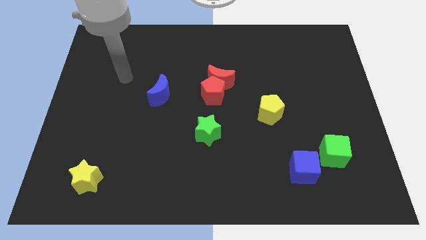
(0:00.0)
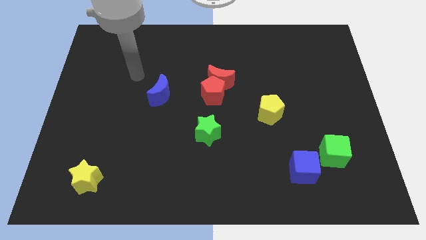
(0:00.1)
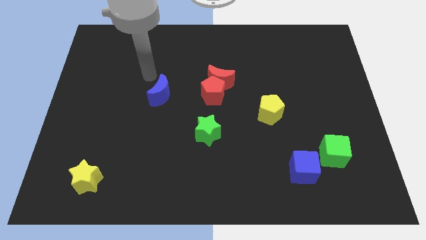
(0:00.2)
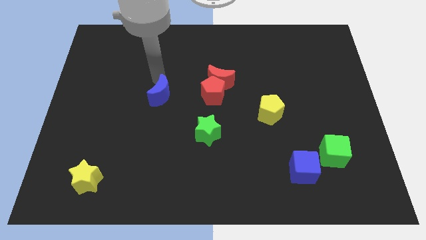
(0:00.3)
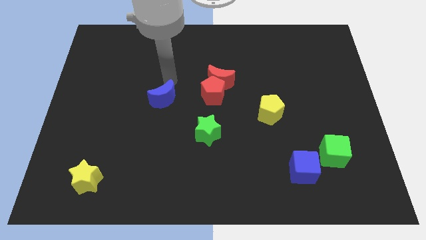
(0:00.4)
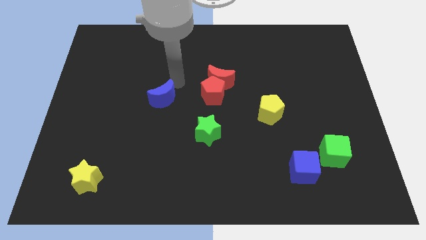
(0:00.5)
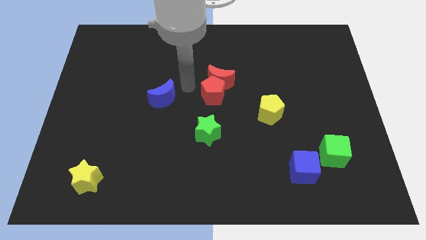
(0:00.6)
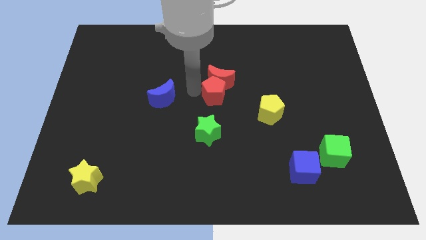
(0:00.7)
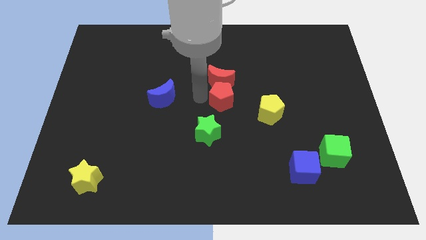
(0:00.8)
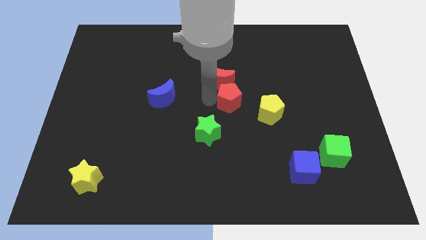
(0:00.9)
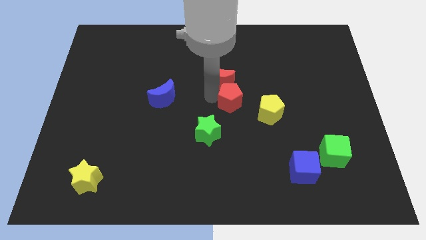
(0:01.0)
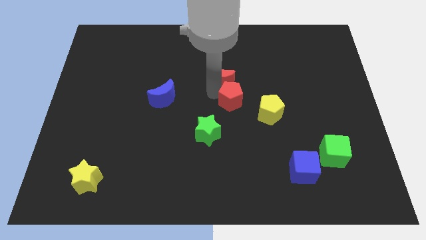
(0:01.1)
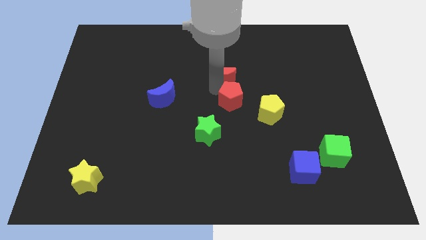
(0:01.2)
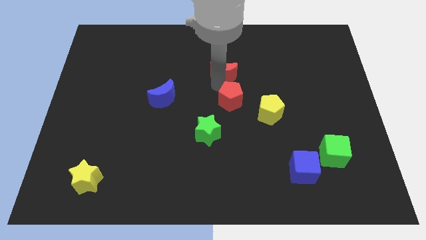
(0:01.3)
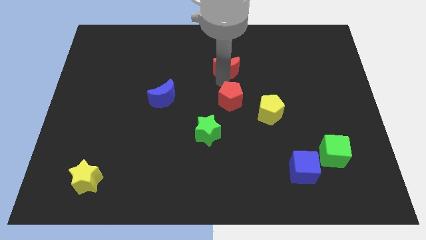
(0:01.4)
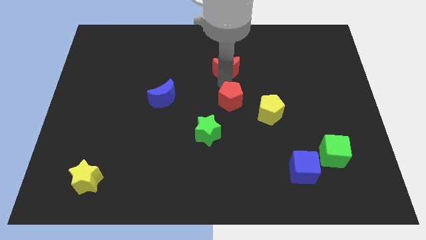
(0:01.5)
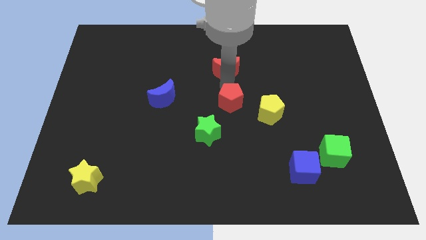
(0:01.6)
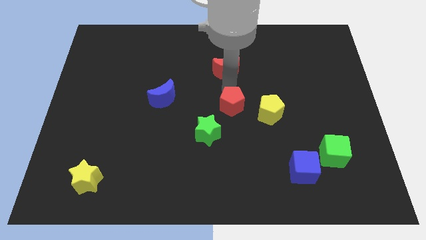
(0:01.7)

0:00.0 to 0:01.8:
pull the red moon apart from the red pentagon

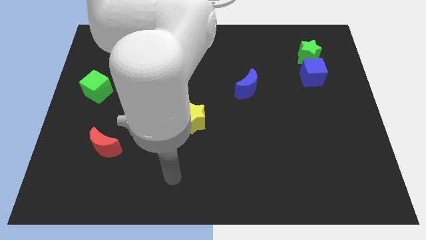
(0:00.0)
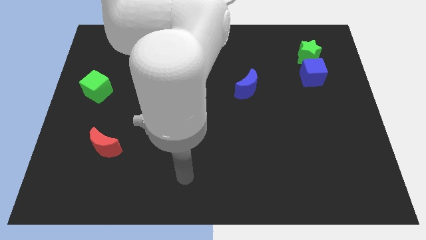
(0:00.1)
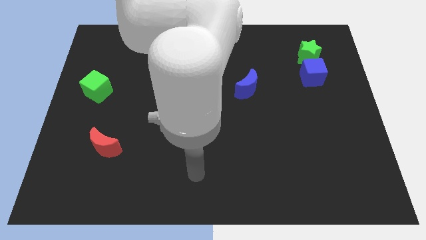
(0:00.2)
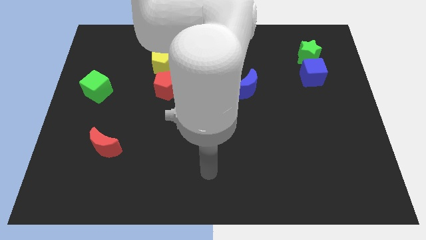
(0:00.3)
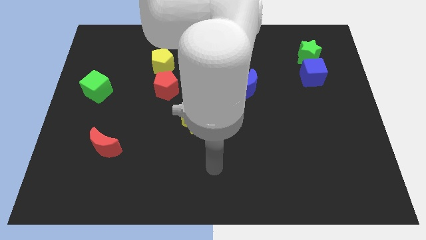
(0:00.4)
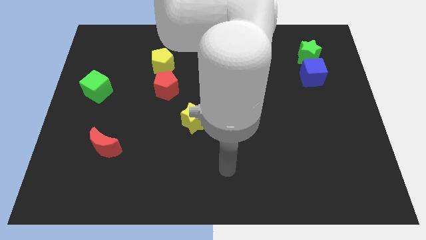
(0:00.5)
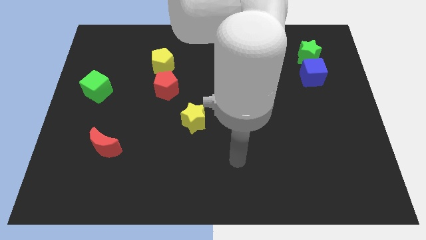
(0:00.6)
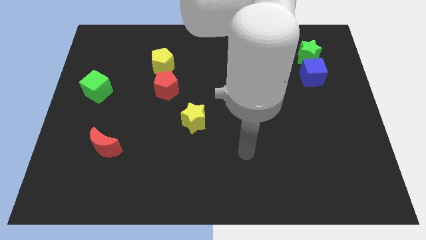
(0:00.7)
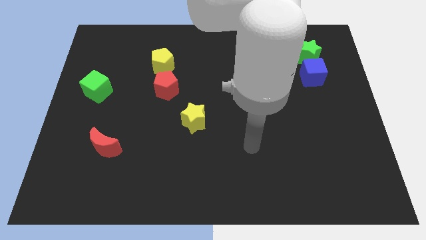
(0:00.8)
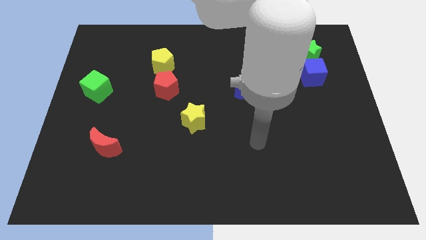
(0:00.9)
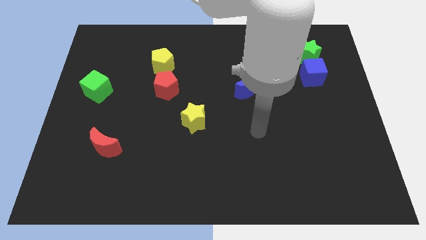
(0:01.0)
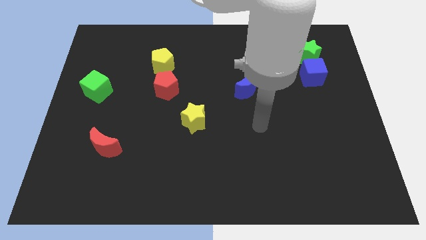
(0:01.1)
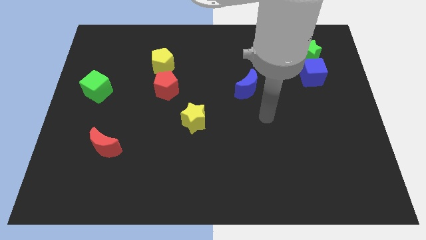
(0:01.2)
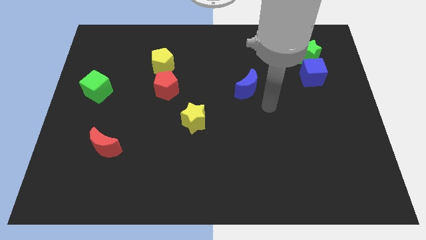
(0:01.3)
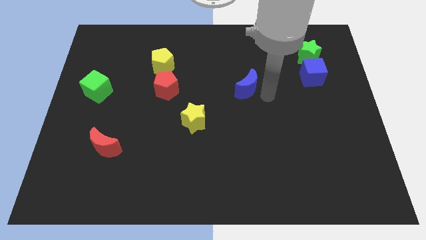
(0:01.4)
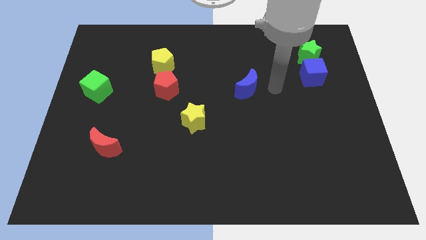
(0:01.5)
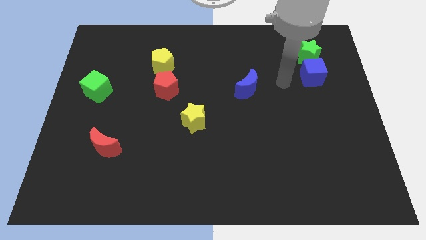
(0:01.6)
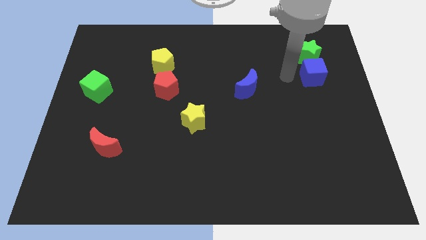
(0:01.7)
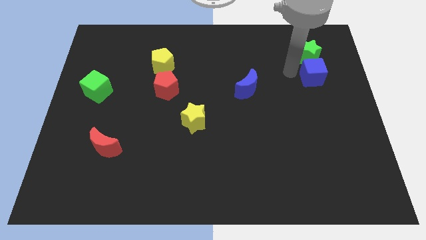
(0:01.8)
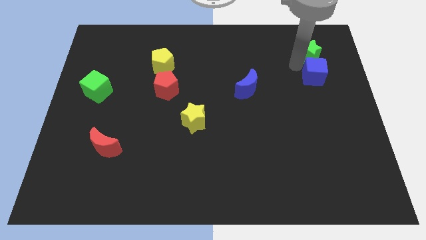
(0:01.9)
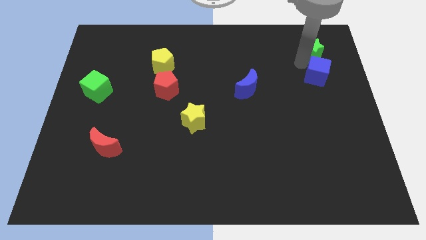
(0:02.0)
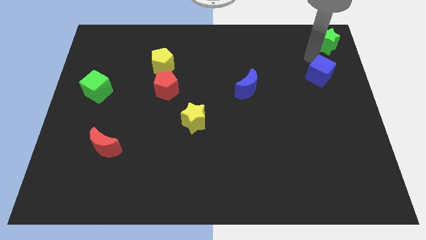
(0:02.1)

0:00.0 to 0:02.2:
move the blue cube away from the green star

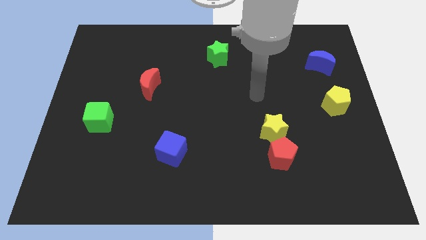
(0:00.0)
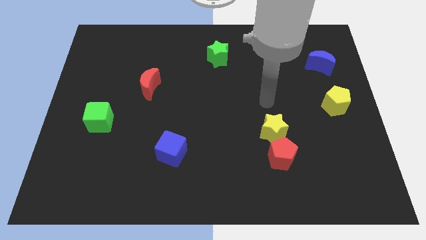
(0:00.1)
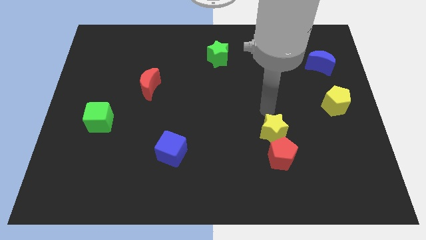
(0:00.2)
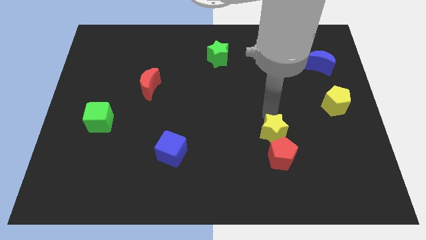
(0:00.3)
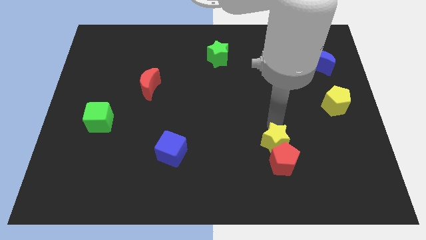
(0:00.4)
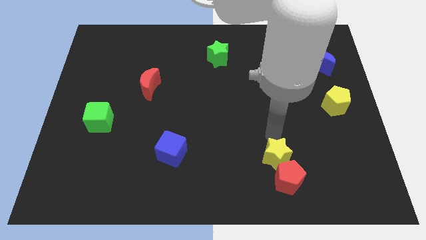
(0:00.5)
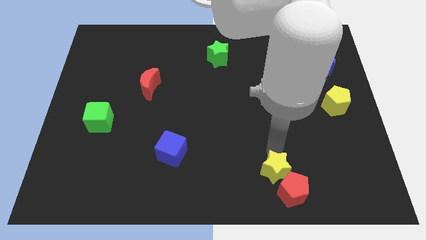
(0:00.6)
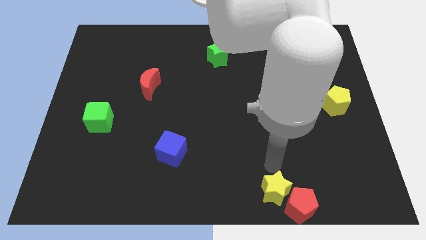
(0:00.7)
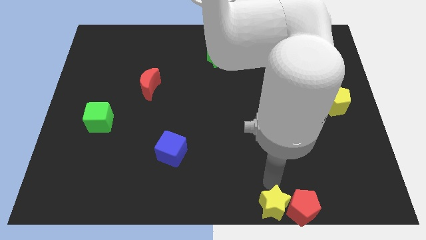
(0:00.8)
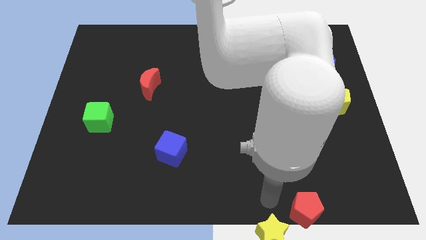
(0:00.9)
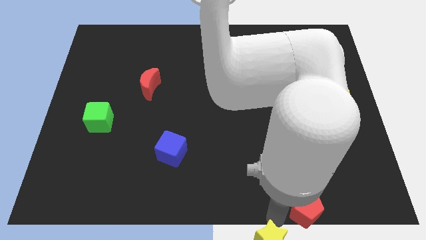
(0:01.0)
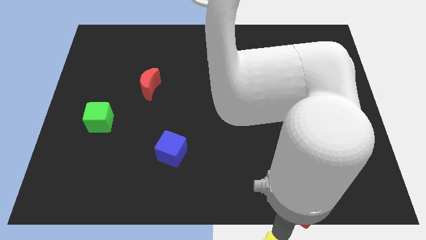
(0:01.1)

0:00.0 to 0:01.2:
move the red pentagon away from the yellow star

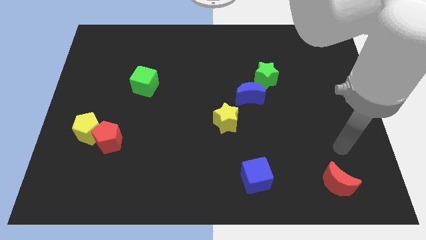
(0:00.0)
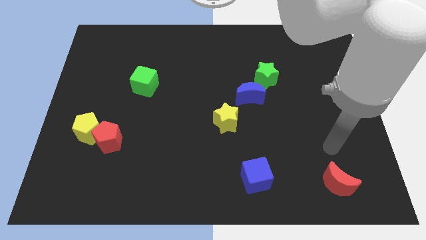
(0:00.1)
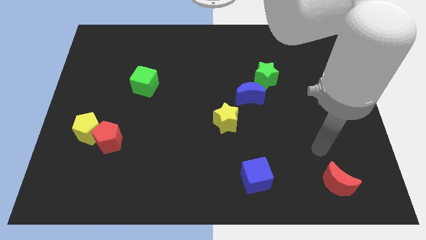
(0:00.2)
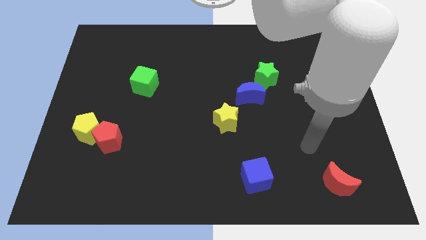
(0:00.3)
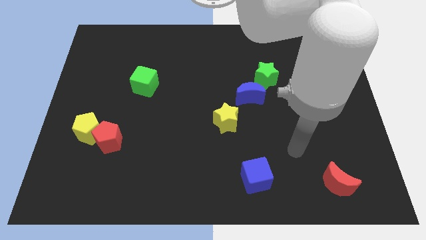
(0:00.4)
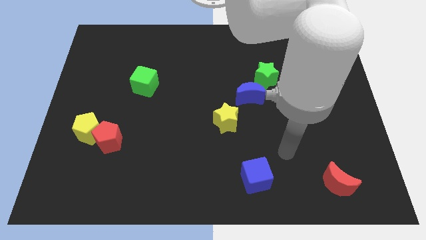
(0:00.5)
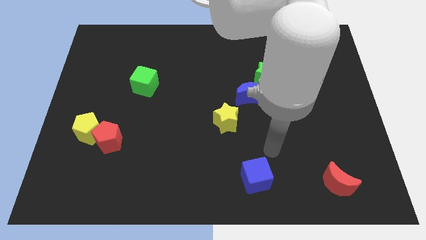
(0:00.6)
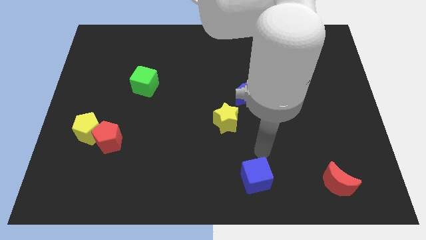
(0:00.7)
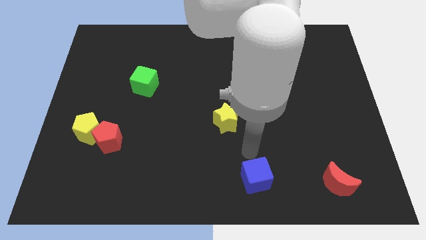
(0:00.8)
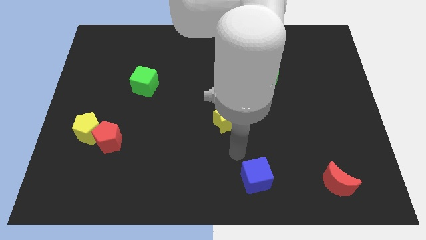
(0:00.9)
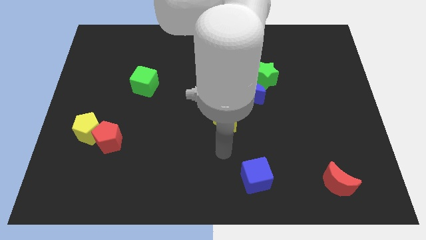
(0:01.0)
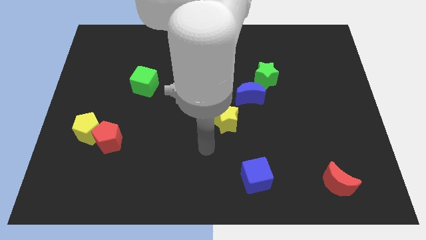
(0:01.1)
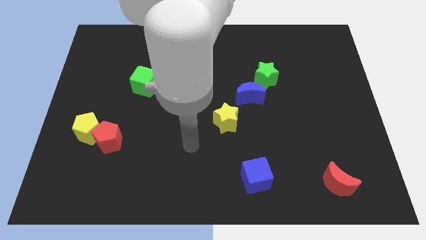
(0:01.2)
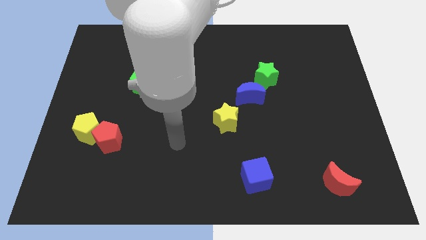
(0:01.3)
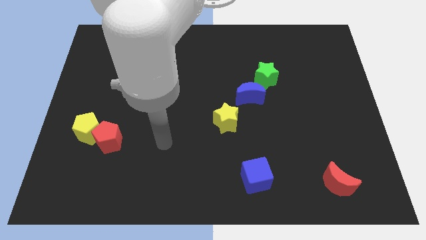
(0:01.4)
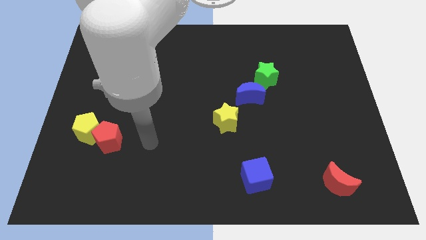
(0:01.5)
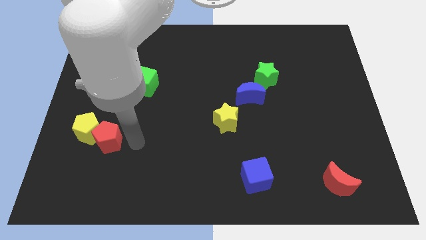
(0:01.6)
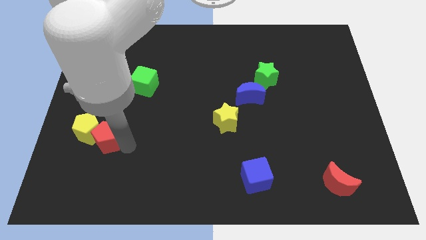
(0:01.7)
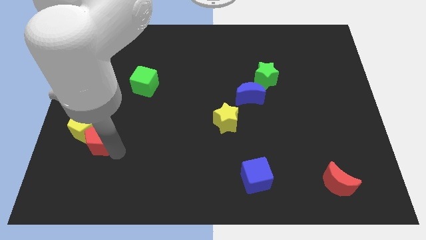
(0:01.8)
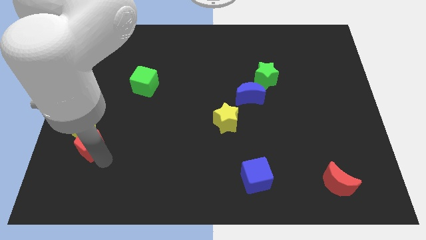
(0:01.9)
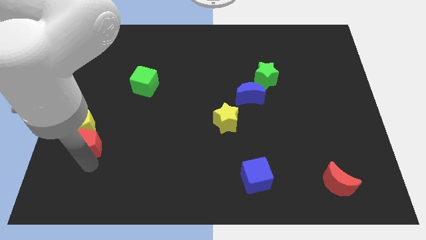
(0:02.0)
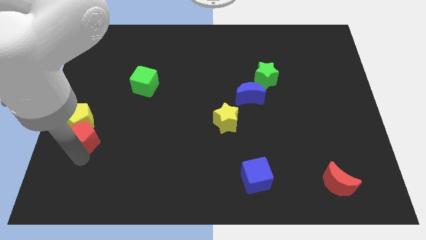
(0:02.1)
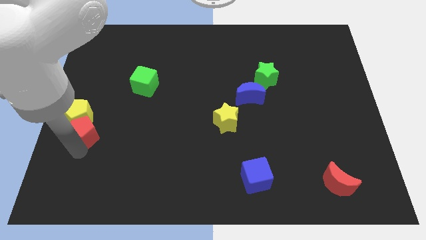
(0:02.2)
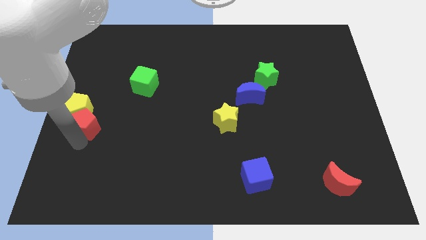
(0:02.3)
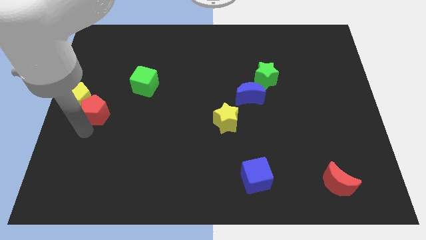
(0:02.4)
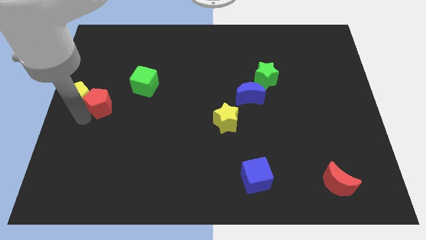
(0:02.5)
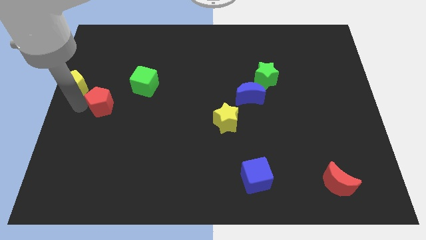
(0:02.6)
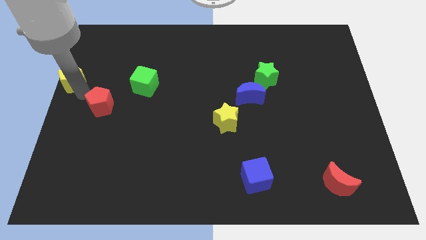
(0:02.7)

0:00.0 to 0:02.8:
pull the red pentagon apart from the yellow pentagon

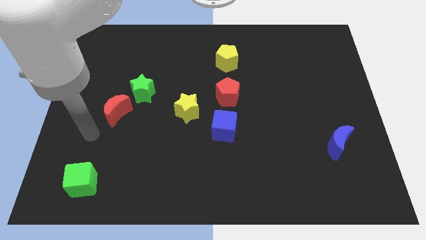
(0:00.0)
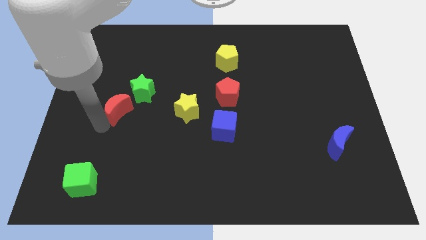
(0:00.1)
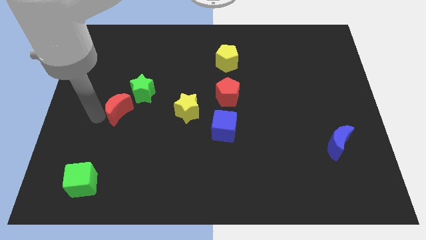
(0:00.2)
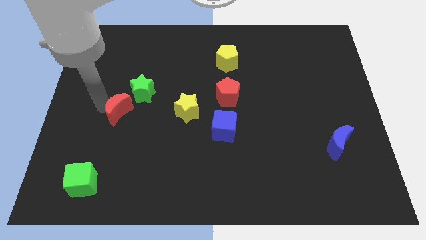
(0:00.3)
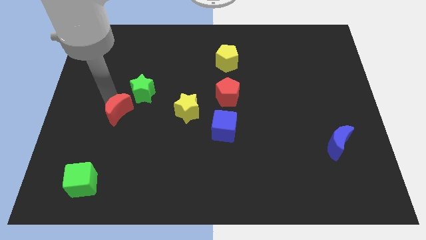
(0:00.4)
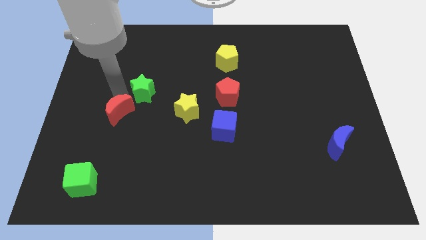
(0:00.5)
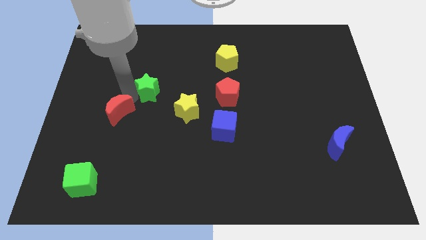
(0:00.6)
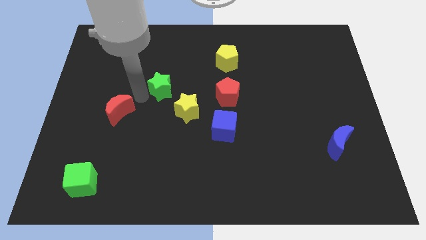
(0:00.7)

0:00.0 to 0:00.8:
separate the red moon from the green star

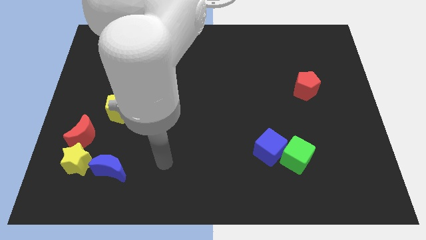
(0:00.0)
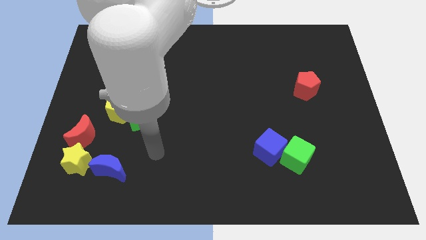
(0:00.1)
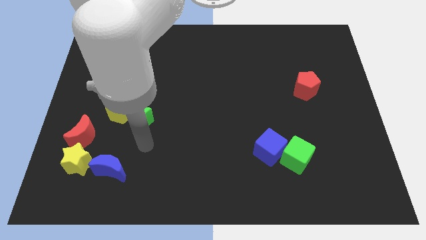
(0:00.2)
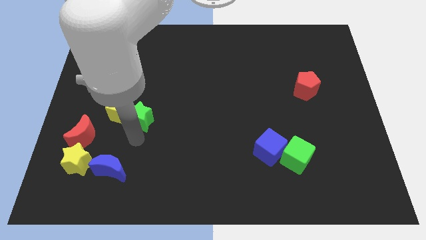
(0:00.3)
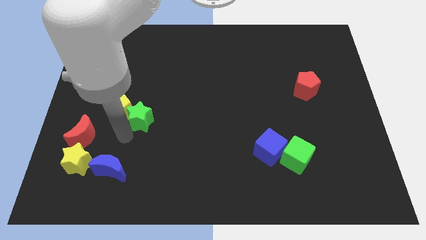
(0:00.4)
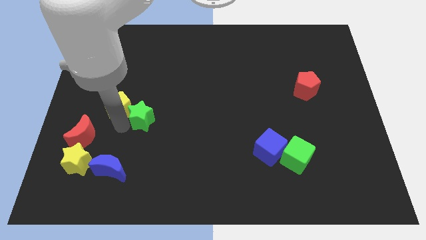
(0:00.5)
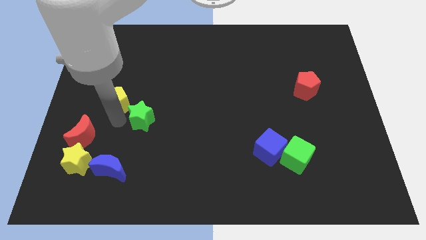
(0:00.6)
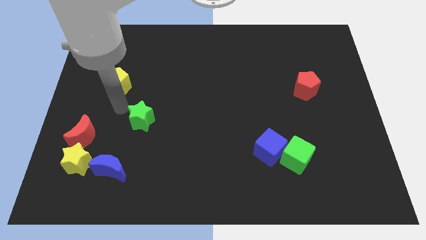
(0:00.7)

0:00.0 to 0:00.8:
move the green star away from the yellow pentagon
